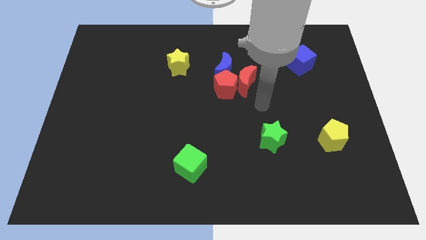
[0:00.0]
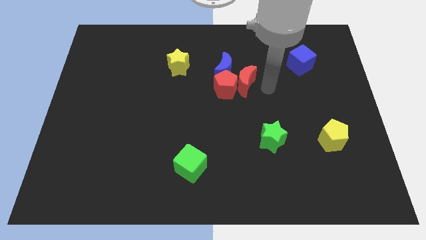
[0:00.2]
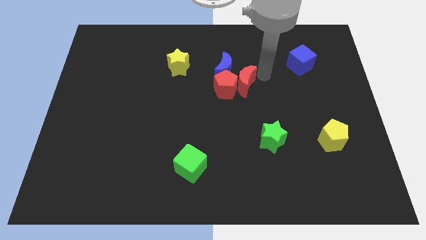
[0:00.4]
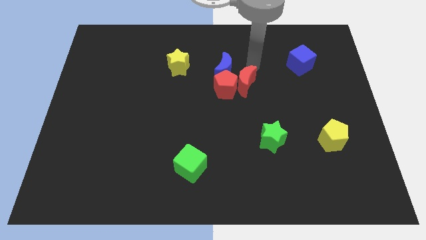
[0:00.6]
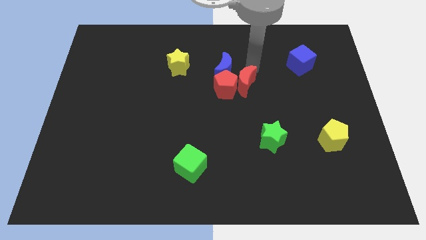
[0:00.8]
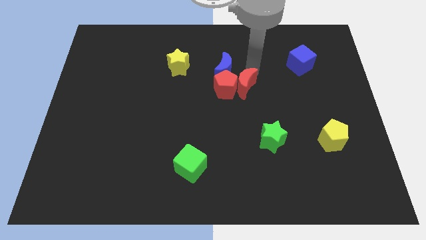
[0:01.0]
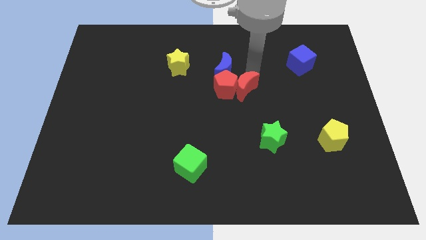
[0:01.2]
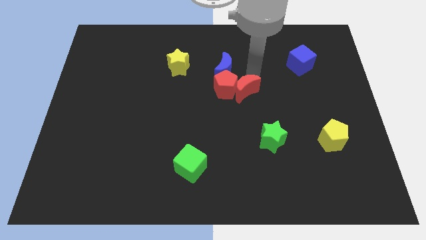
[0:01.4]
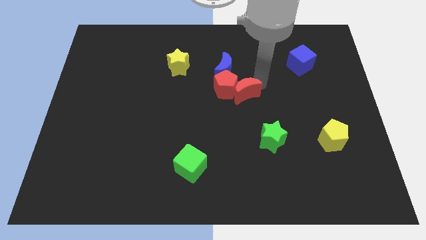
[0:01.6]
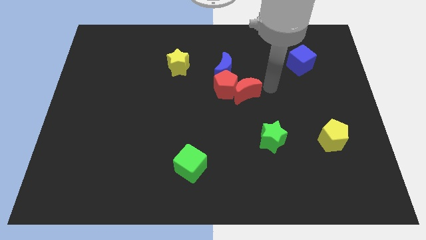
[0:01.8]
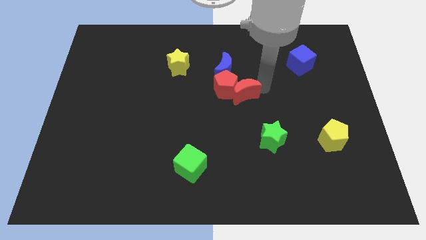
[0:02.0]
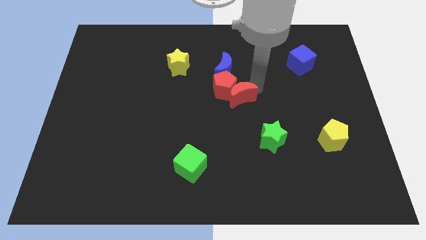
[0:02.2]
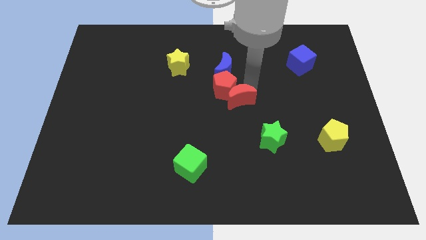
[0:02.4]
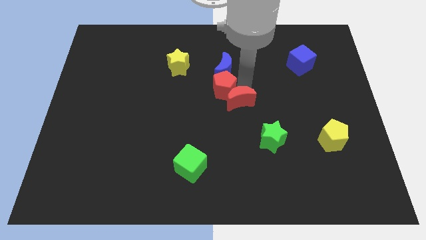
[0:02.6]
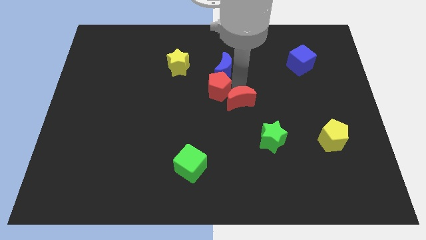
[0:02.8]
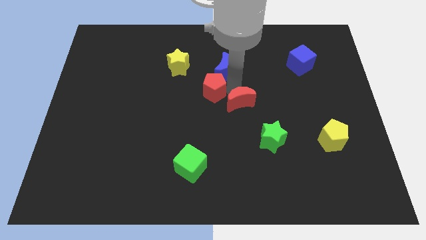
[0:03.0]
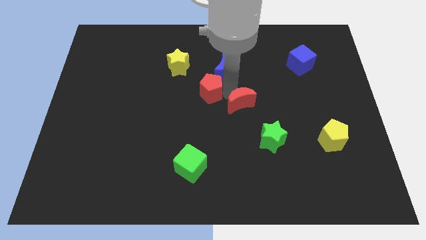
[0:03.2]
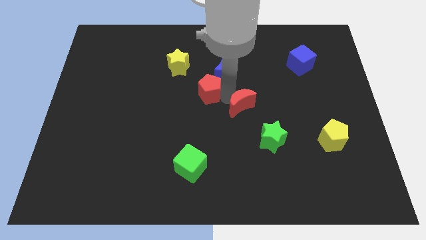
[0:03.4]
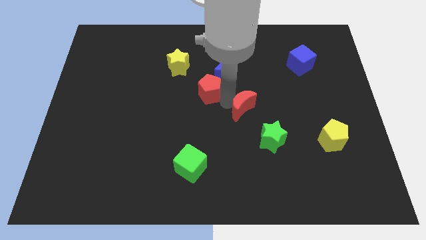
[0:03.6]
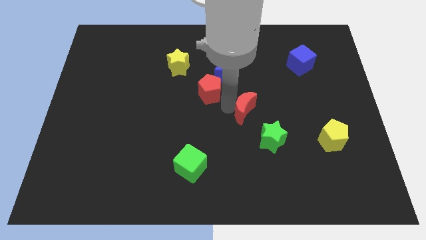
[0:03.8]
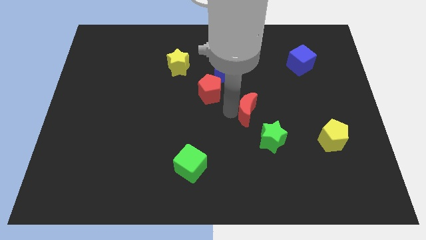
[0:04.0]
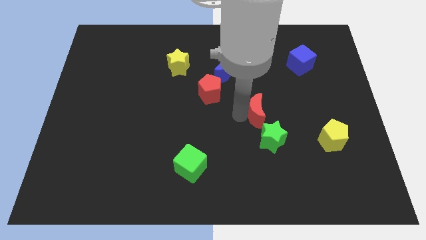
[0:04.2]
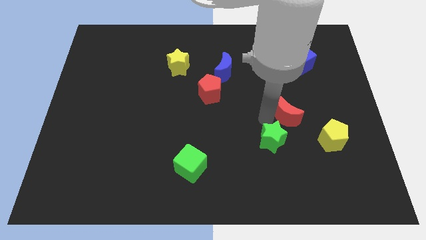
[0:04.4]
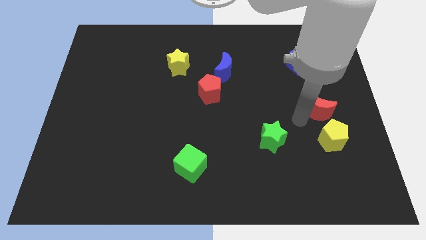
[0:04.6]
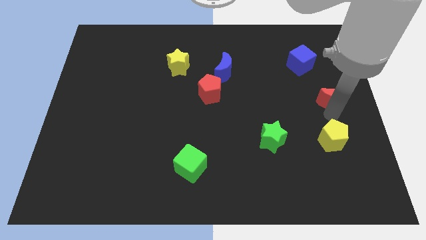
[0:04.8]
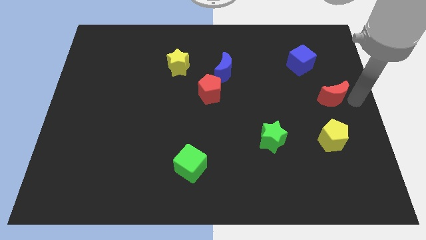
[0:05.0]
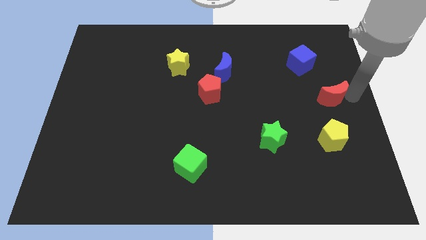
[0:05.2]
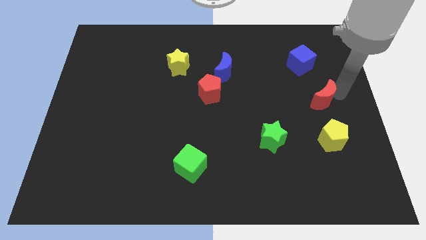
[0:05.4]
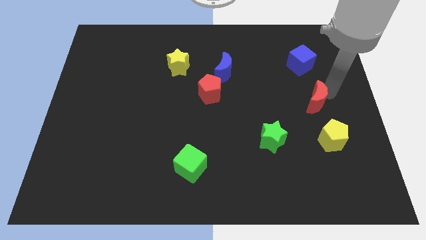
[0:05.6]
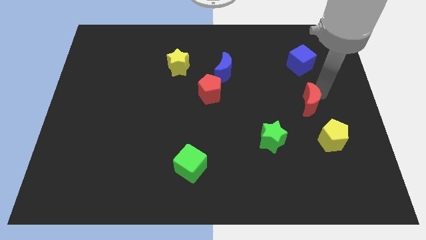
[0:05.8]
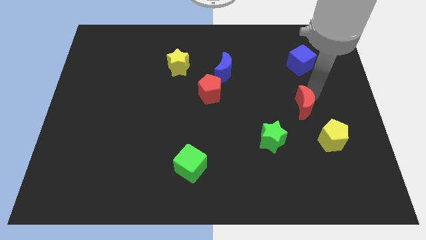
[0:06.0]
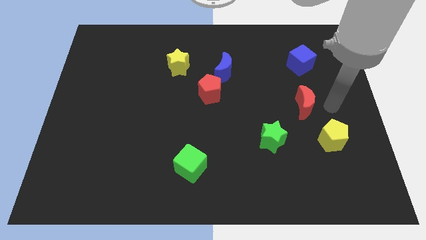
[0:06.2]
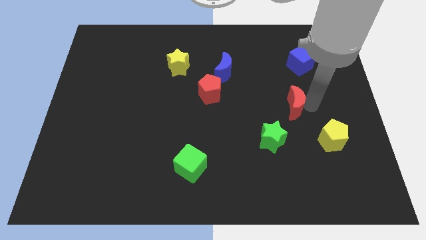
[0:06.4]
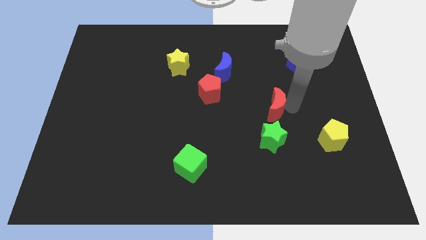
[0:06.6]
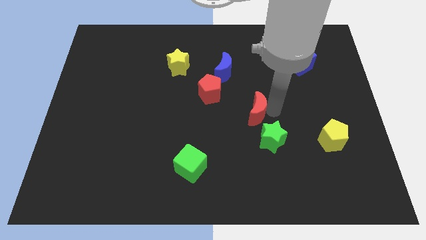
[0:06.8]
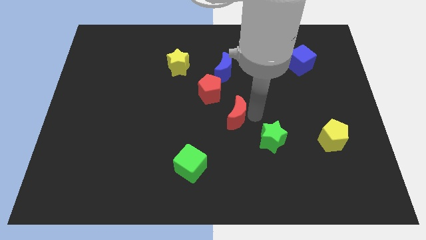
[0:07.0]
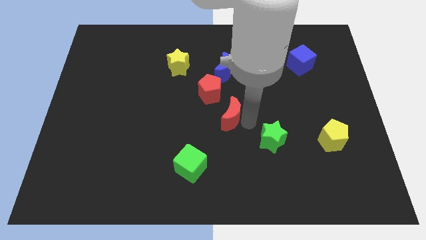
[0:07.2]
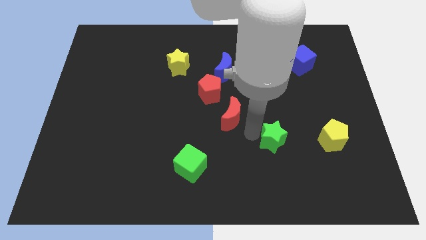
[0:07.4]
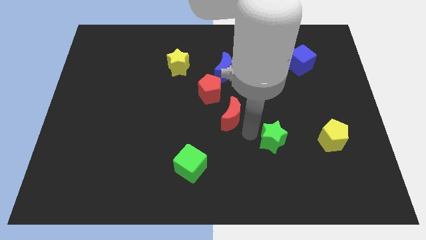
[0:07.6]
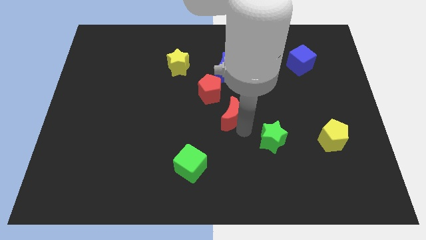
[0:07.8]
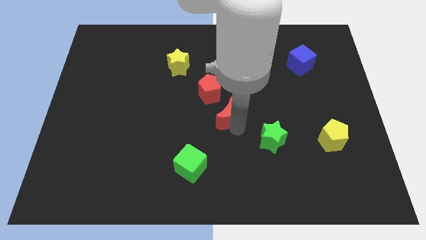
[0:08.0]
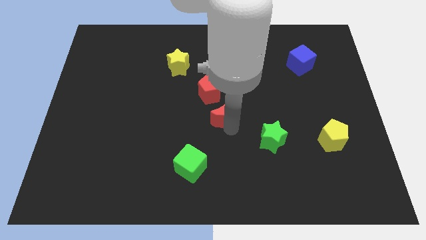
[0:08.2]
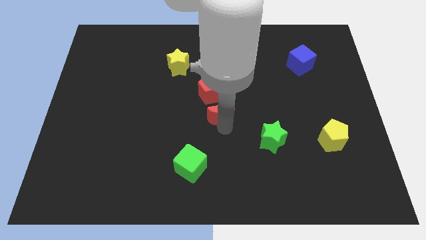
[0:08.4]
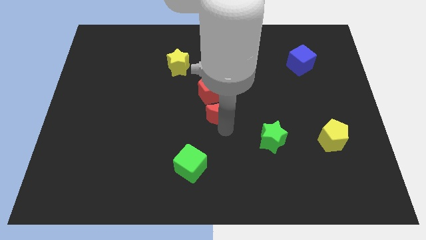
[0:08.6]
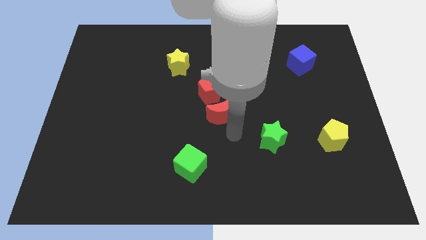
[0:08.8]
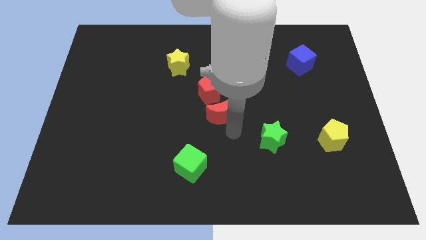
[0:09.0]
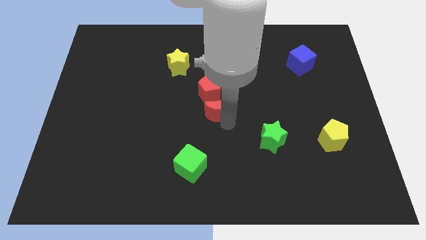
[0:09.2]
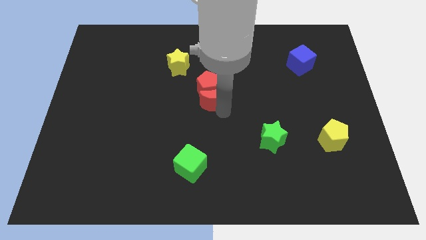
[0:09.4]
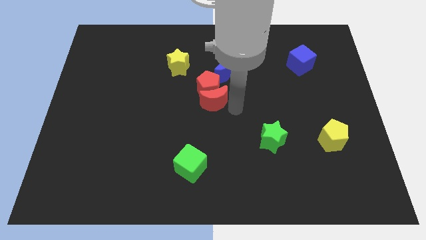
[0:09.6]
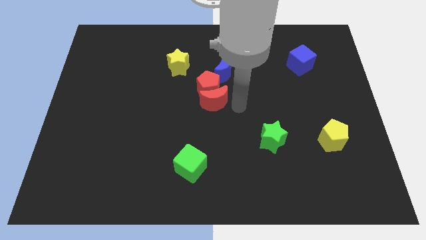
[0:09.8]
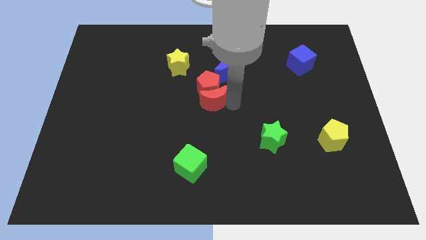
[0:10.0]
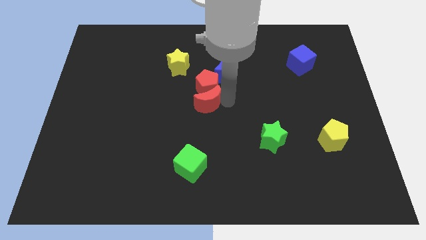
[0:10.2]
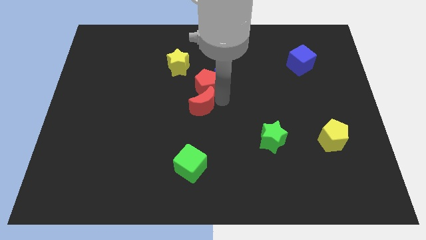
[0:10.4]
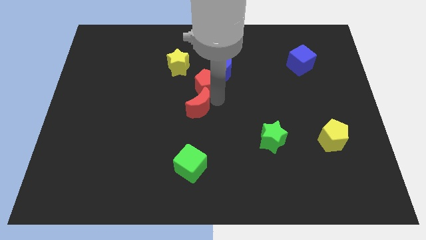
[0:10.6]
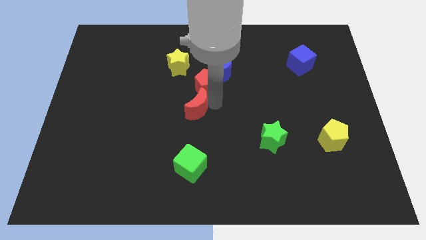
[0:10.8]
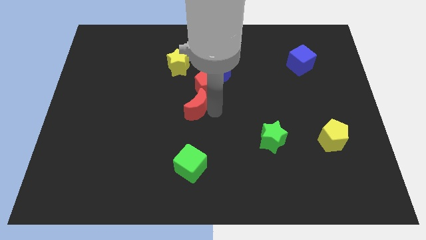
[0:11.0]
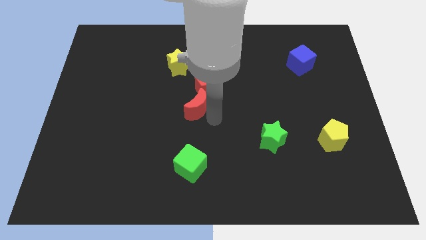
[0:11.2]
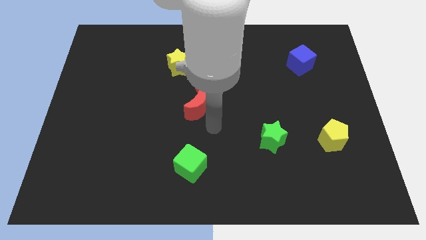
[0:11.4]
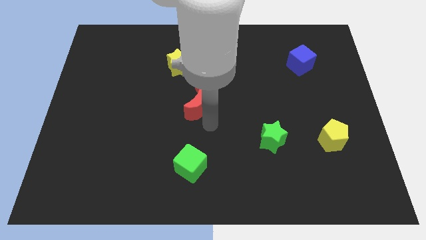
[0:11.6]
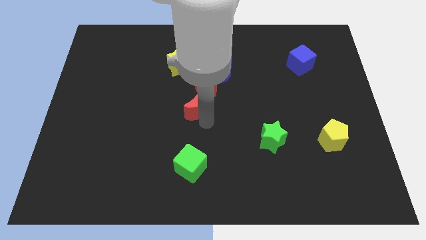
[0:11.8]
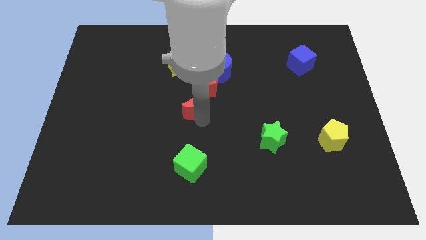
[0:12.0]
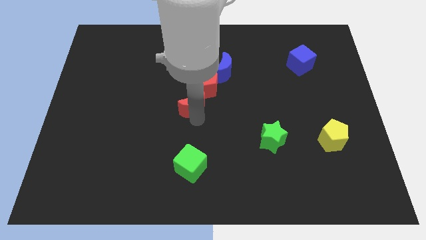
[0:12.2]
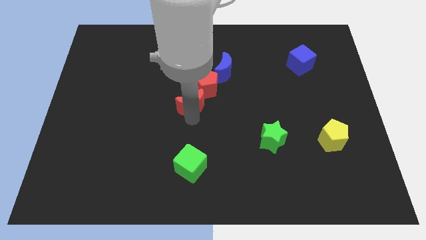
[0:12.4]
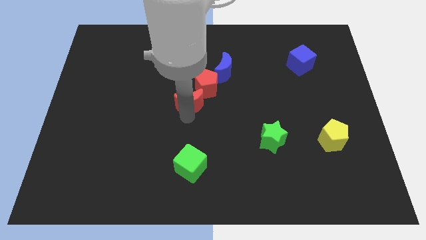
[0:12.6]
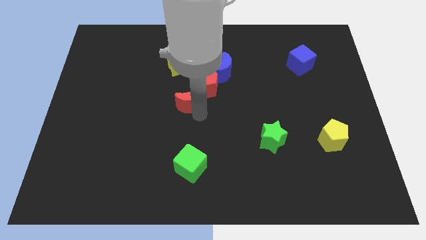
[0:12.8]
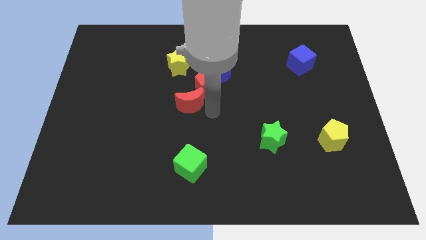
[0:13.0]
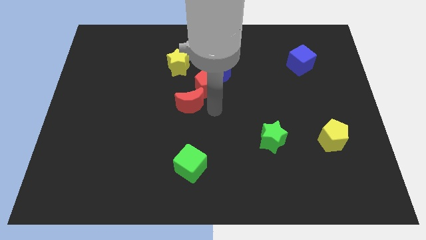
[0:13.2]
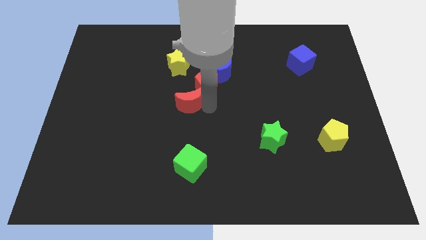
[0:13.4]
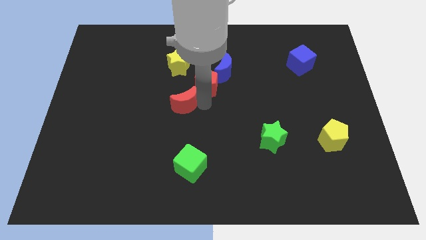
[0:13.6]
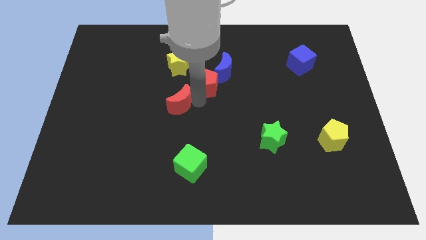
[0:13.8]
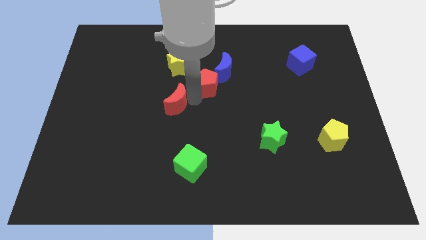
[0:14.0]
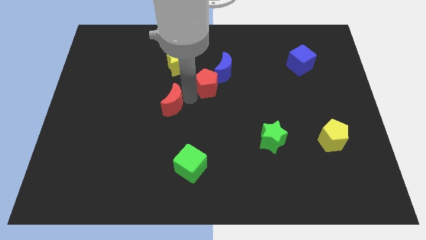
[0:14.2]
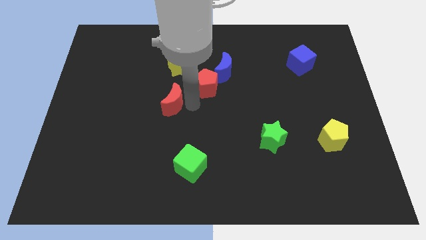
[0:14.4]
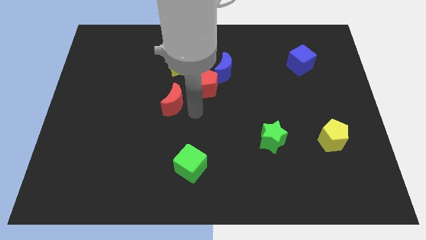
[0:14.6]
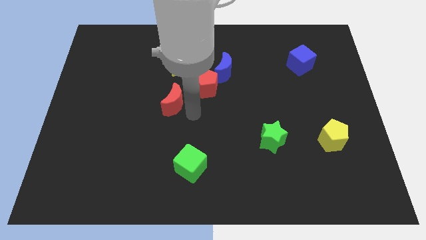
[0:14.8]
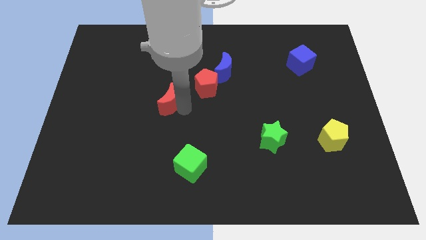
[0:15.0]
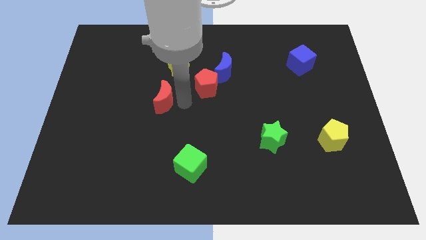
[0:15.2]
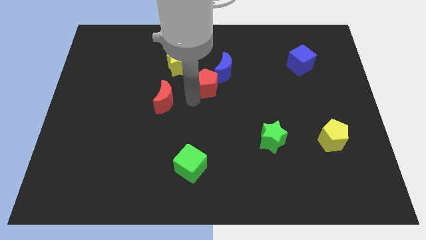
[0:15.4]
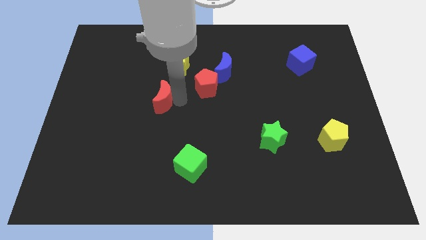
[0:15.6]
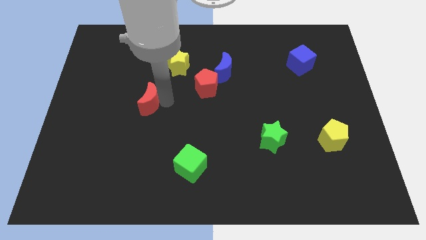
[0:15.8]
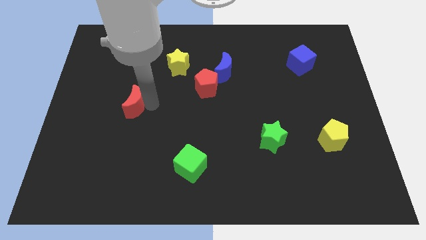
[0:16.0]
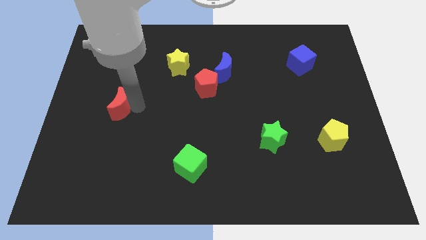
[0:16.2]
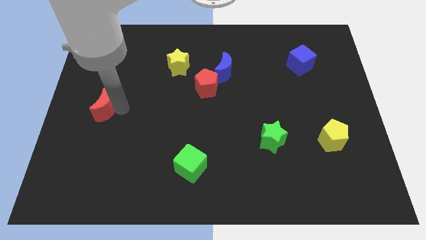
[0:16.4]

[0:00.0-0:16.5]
slide the red moon to the center left
